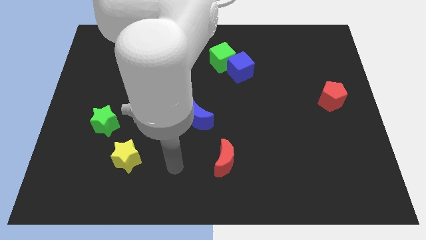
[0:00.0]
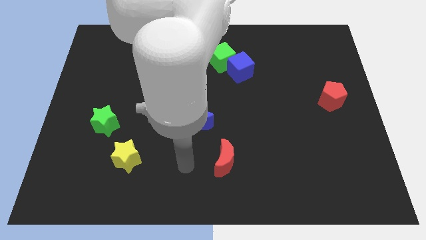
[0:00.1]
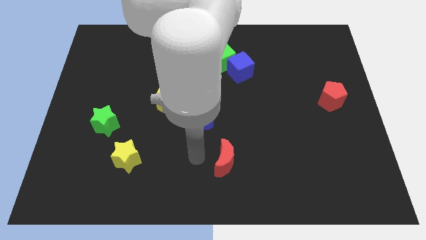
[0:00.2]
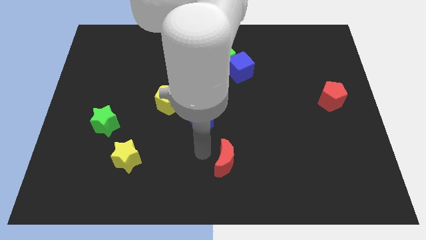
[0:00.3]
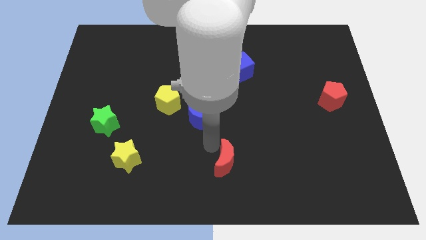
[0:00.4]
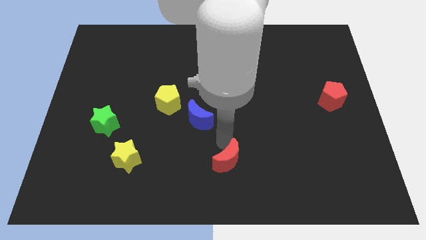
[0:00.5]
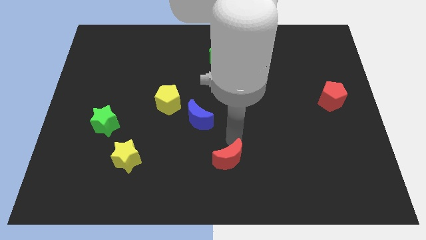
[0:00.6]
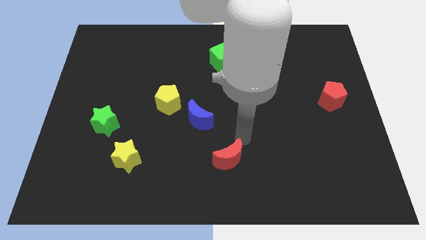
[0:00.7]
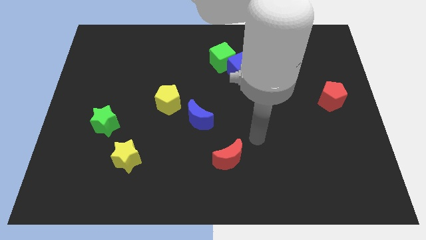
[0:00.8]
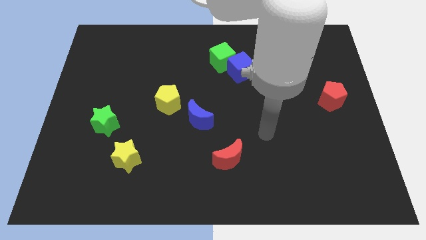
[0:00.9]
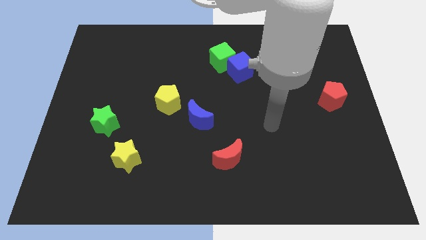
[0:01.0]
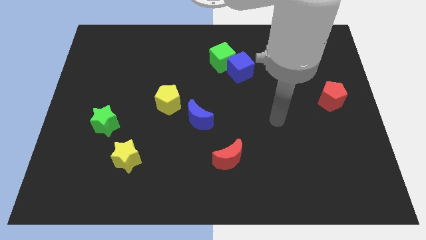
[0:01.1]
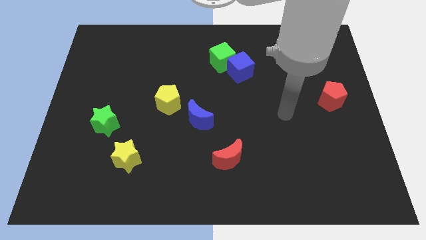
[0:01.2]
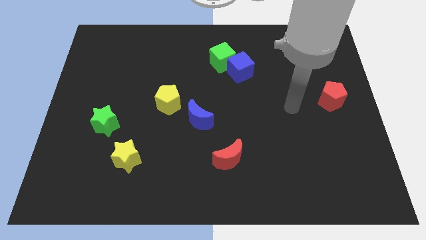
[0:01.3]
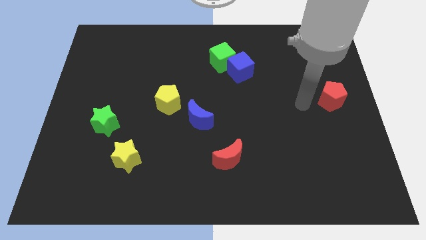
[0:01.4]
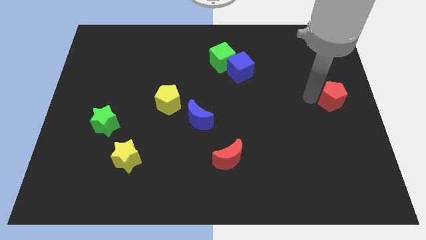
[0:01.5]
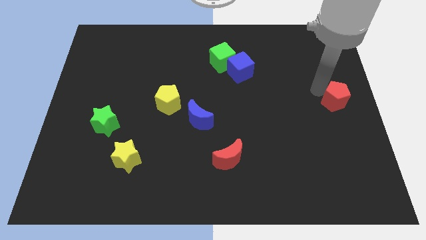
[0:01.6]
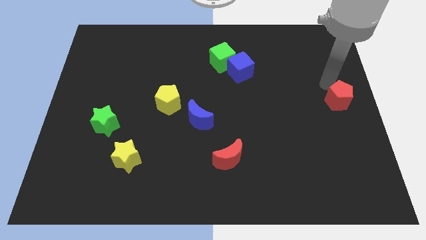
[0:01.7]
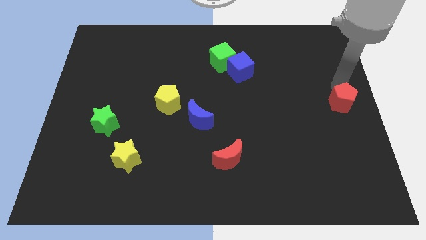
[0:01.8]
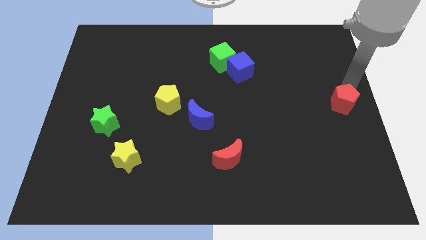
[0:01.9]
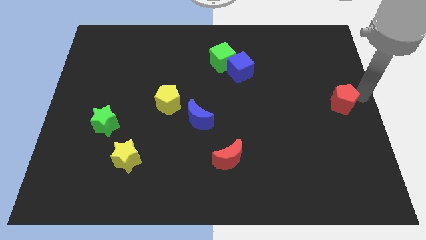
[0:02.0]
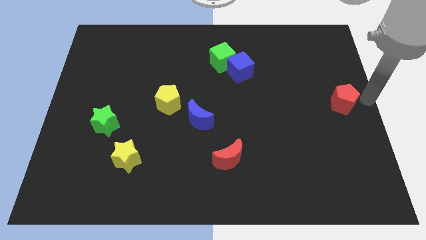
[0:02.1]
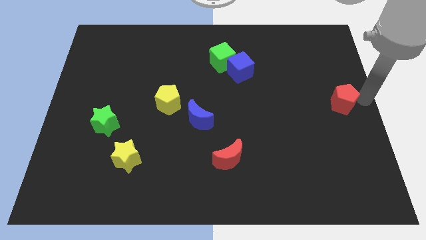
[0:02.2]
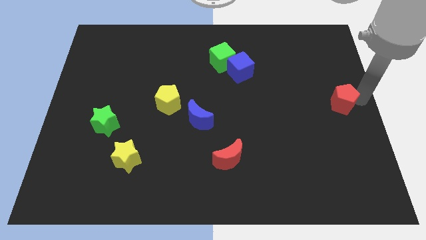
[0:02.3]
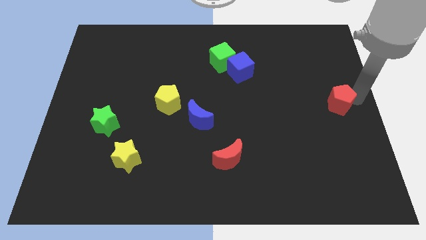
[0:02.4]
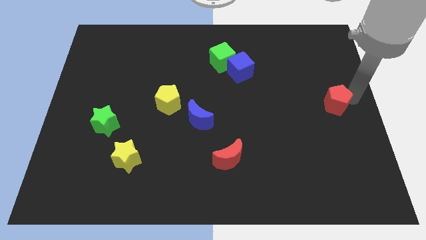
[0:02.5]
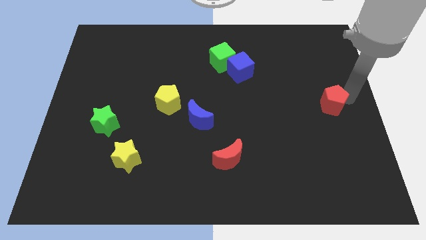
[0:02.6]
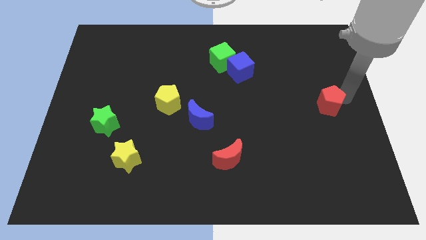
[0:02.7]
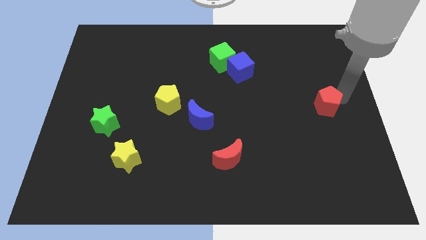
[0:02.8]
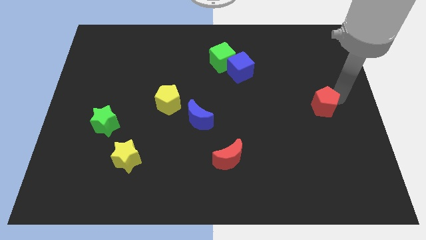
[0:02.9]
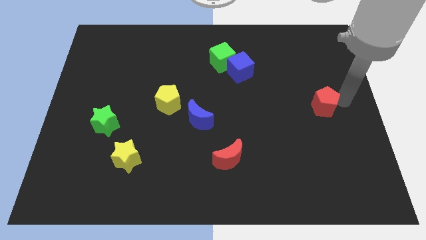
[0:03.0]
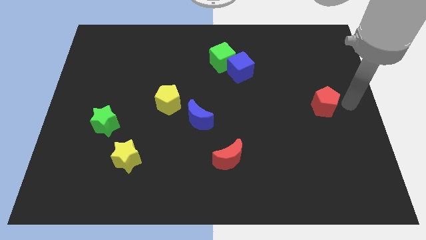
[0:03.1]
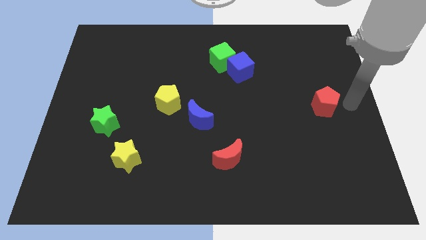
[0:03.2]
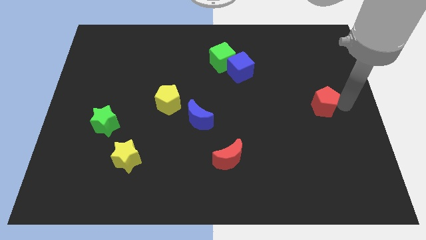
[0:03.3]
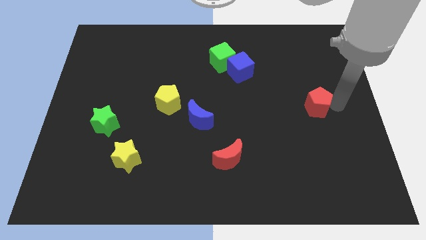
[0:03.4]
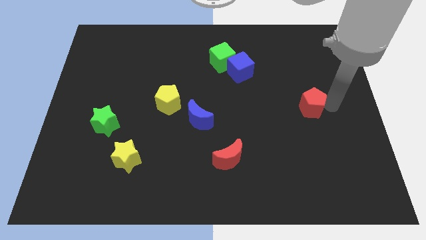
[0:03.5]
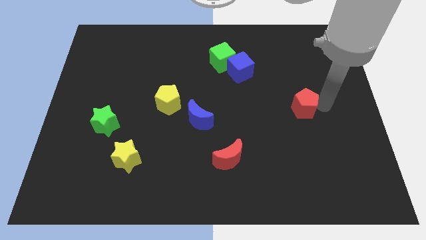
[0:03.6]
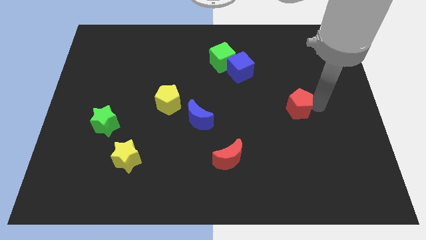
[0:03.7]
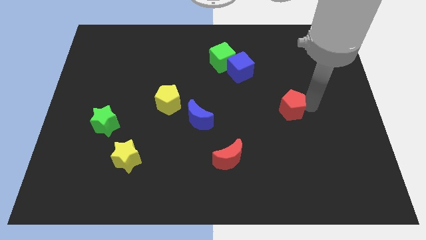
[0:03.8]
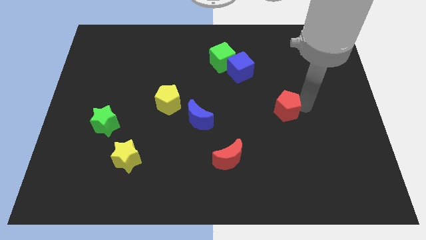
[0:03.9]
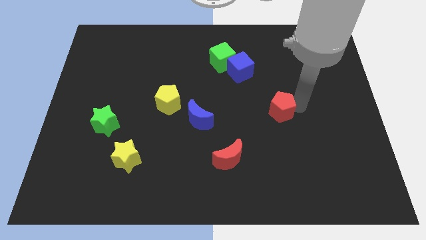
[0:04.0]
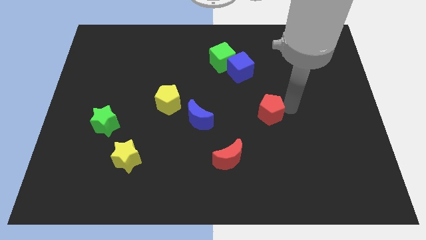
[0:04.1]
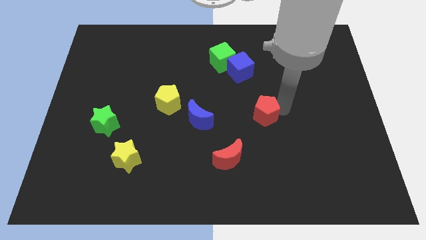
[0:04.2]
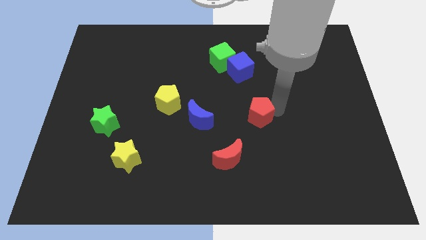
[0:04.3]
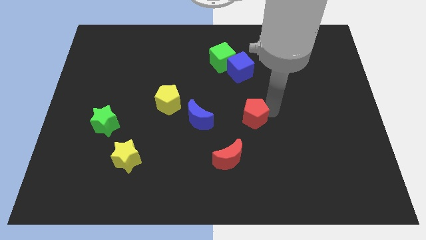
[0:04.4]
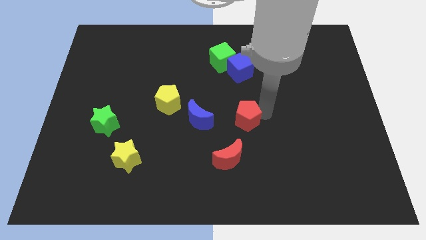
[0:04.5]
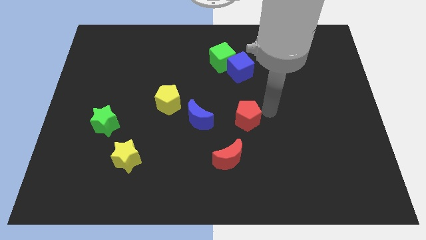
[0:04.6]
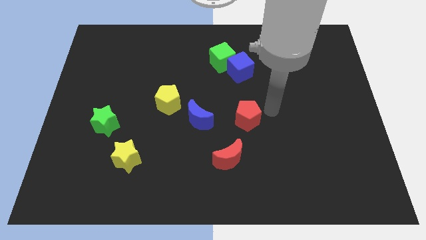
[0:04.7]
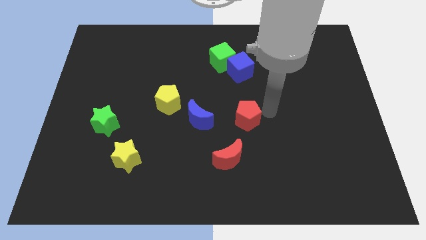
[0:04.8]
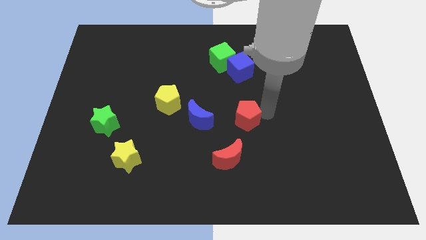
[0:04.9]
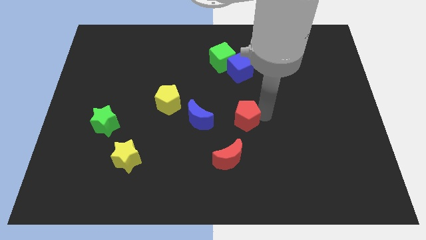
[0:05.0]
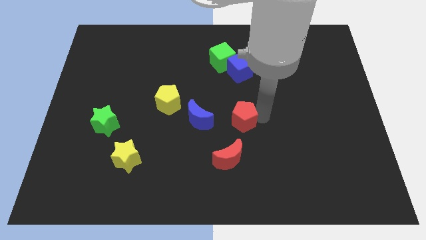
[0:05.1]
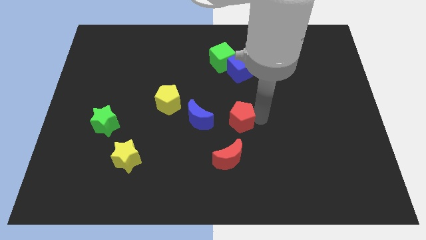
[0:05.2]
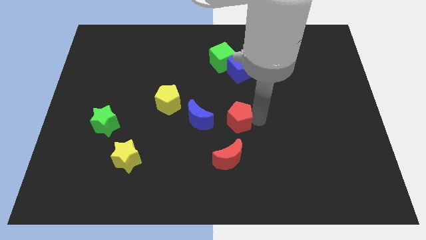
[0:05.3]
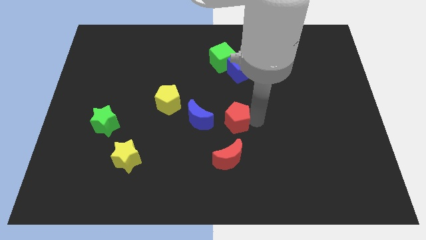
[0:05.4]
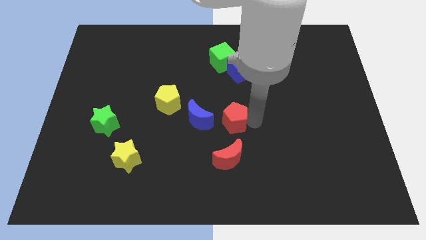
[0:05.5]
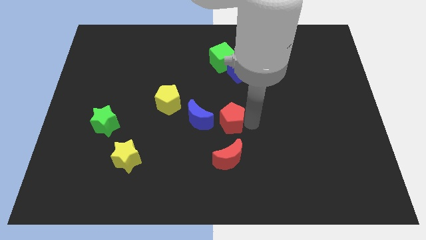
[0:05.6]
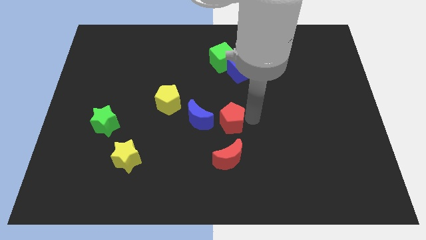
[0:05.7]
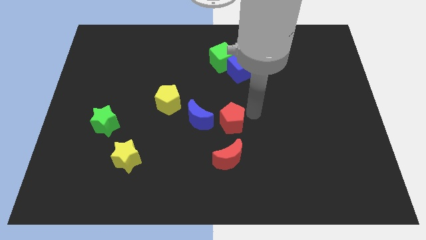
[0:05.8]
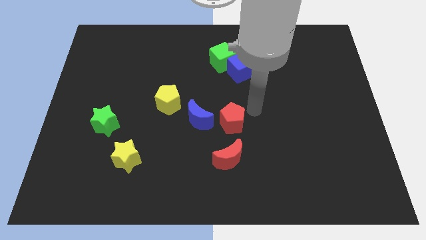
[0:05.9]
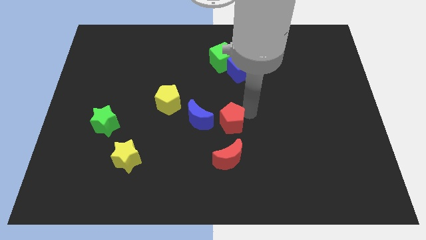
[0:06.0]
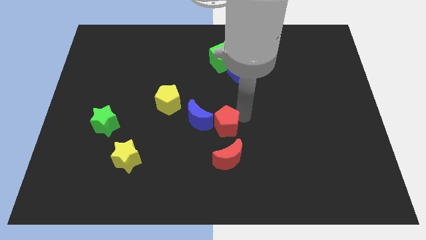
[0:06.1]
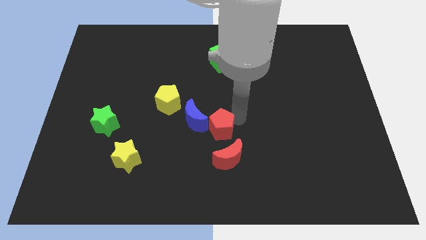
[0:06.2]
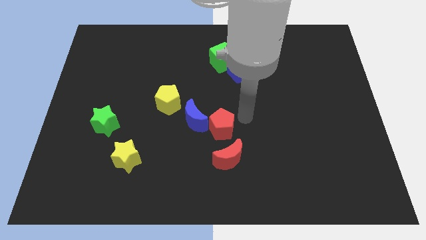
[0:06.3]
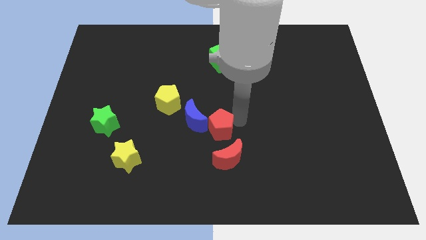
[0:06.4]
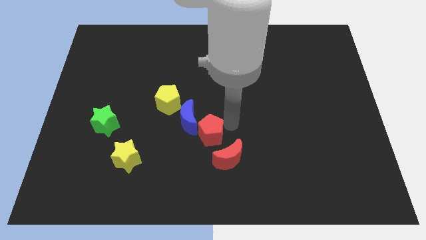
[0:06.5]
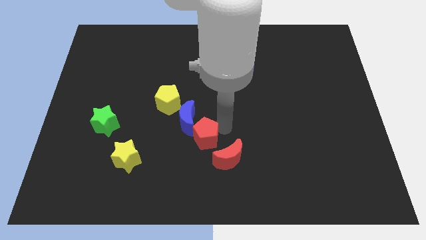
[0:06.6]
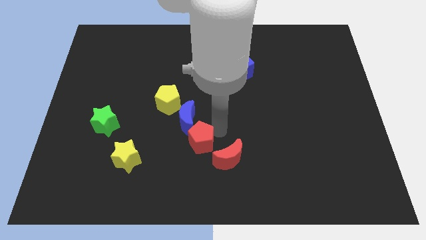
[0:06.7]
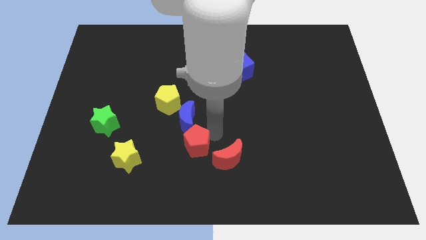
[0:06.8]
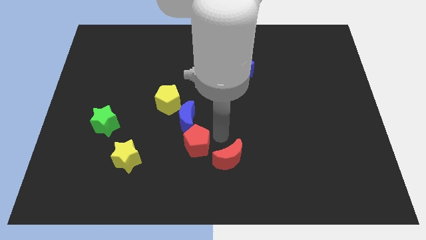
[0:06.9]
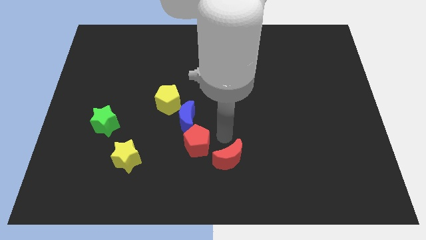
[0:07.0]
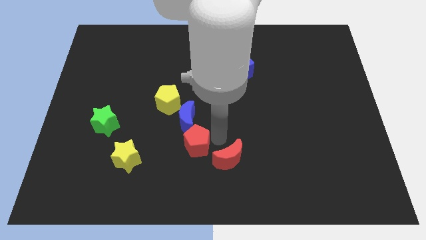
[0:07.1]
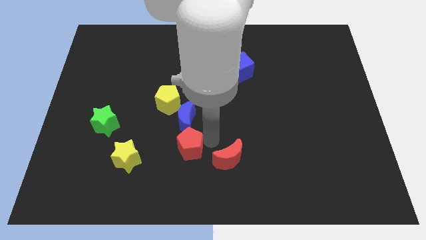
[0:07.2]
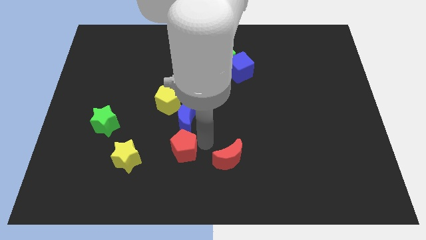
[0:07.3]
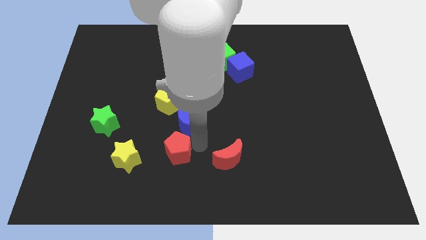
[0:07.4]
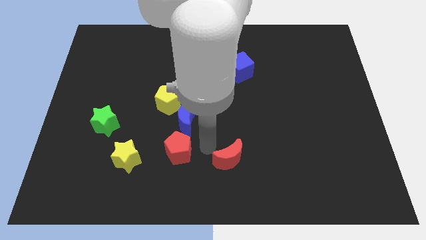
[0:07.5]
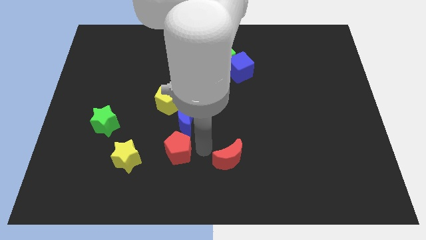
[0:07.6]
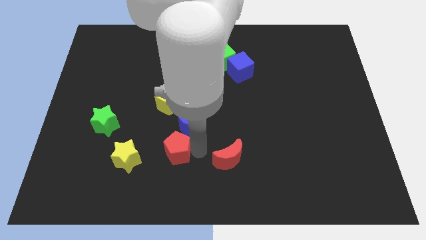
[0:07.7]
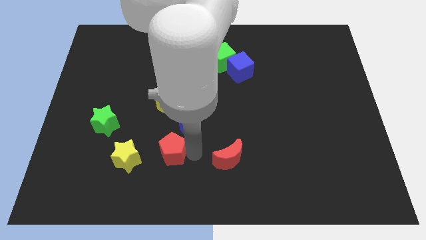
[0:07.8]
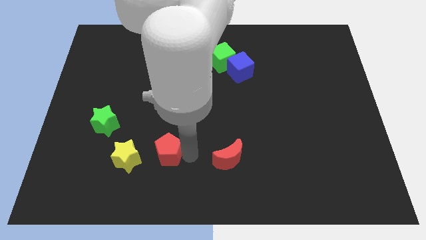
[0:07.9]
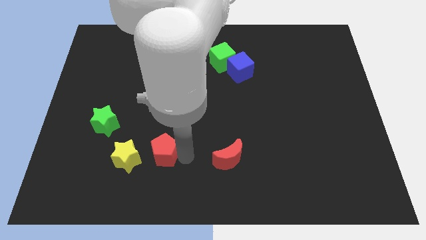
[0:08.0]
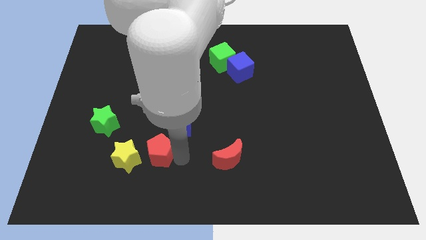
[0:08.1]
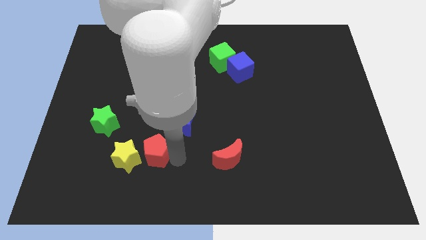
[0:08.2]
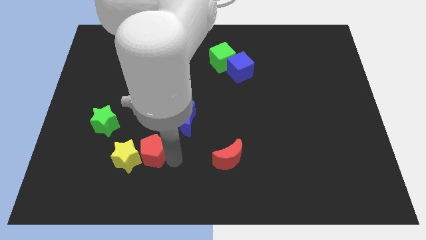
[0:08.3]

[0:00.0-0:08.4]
push the red pentagon to the yellow star
